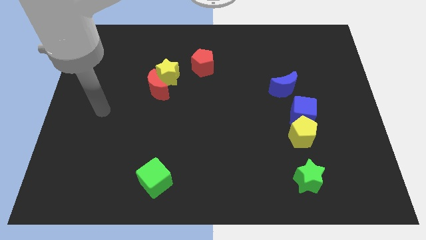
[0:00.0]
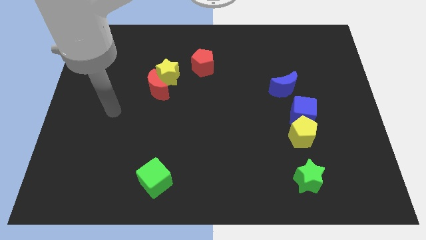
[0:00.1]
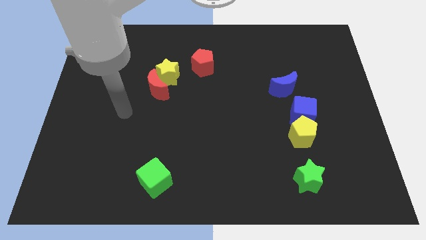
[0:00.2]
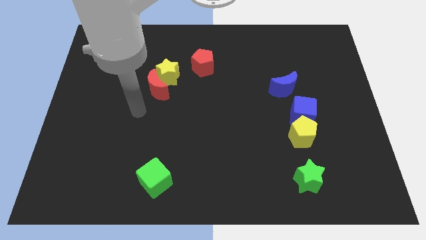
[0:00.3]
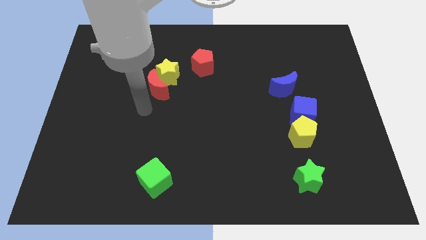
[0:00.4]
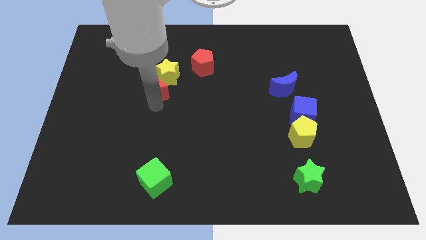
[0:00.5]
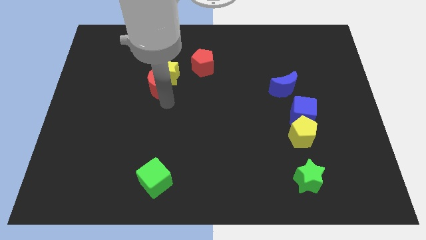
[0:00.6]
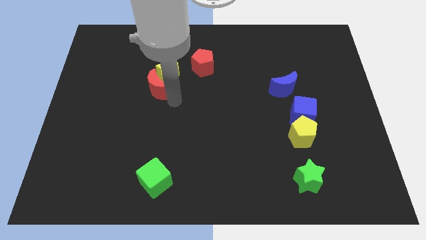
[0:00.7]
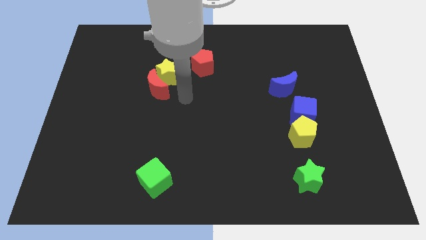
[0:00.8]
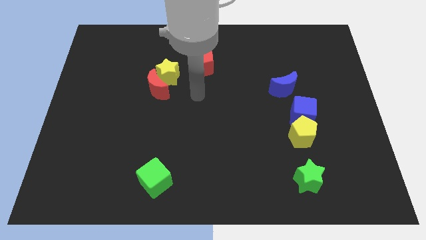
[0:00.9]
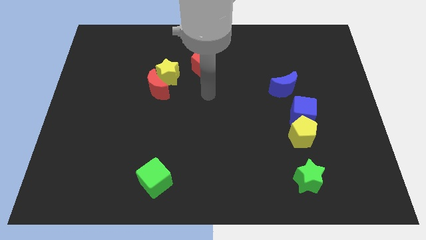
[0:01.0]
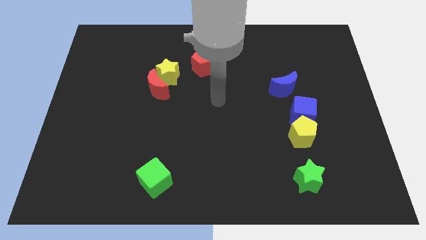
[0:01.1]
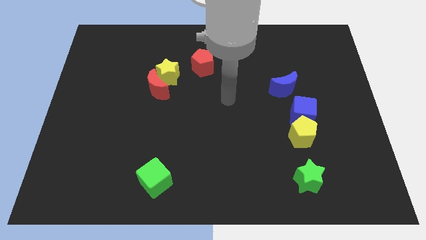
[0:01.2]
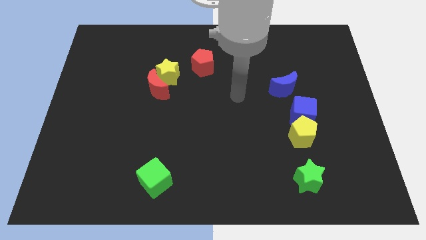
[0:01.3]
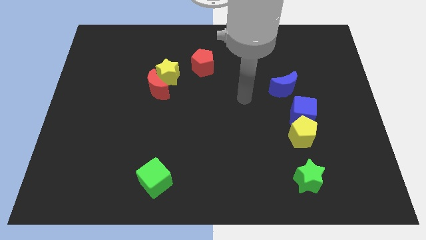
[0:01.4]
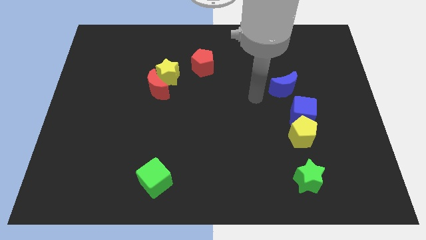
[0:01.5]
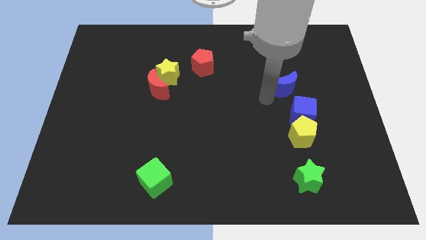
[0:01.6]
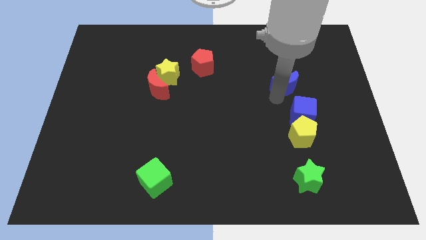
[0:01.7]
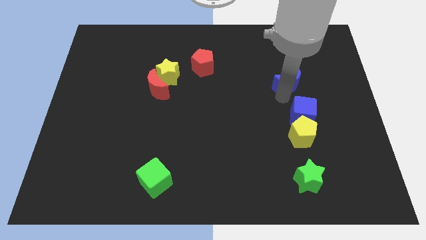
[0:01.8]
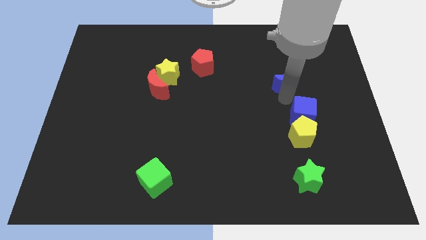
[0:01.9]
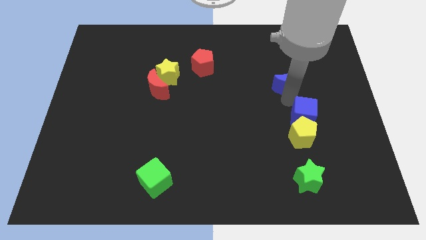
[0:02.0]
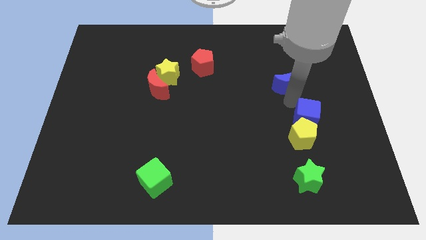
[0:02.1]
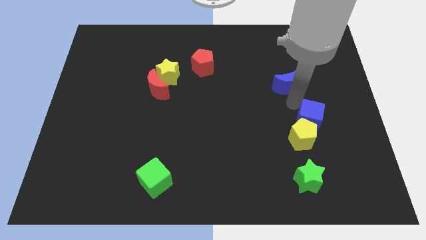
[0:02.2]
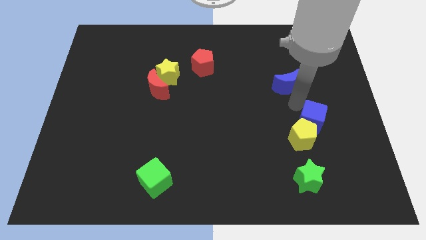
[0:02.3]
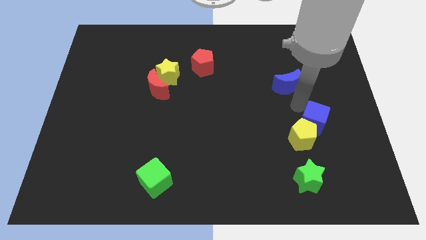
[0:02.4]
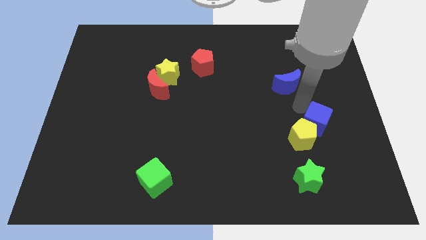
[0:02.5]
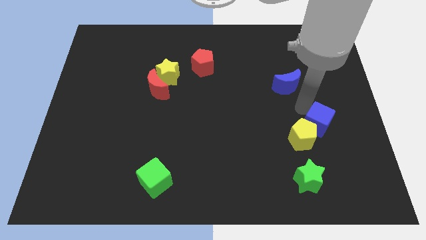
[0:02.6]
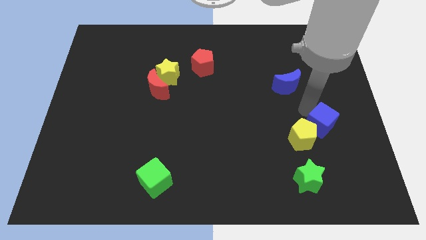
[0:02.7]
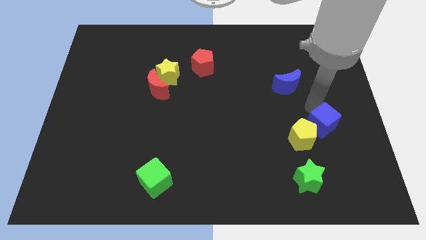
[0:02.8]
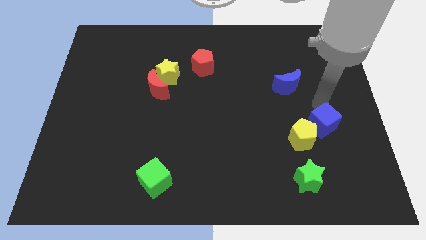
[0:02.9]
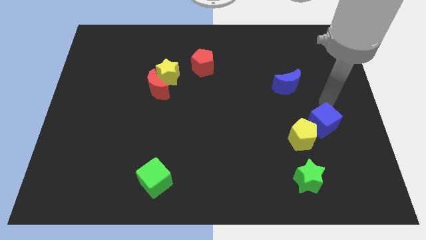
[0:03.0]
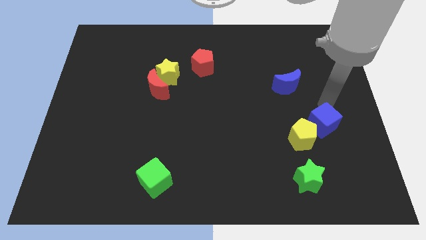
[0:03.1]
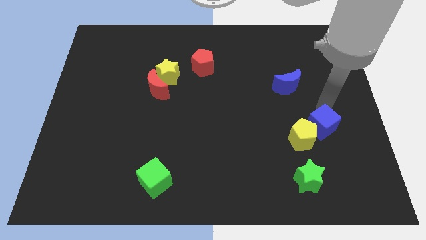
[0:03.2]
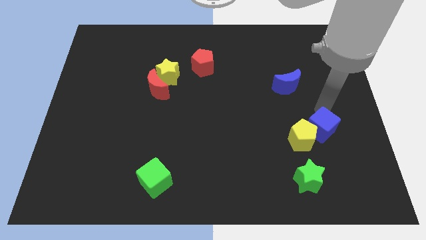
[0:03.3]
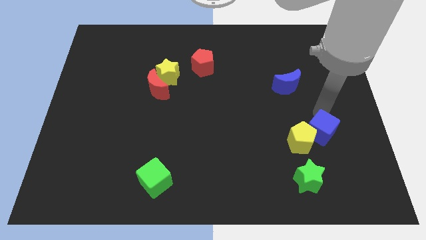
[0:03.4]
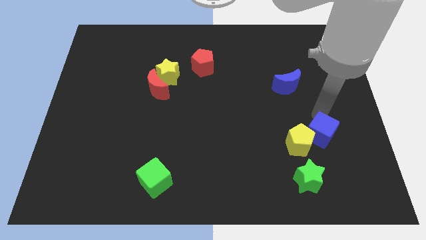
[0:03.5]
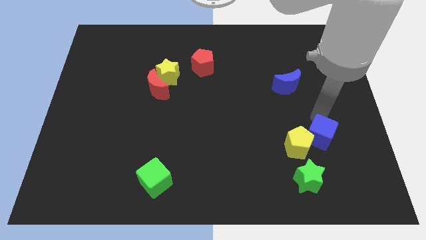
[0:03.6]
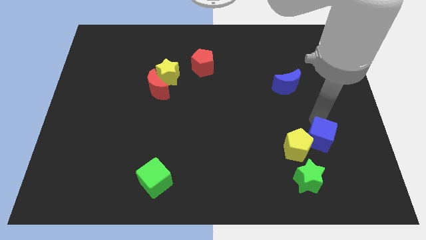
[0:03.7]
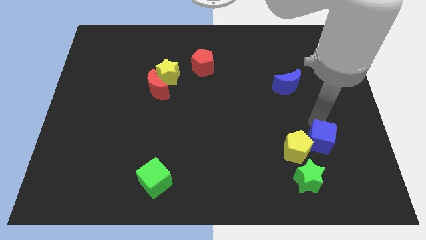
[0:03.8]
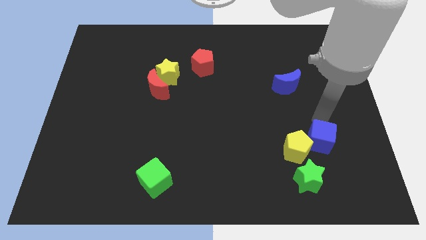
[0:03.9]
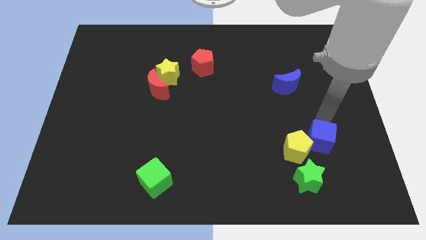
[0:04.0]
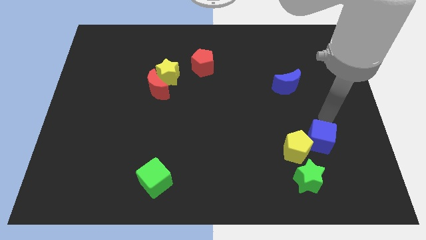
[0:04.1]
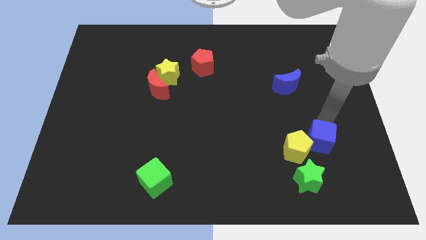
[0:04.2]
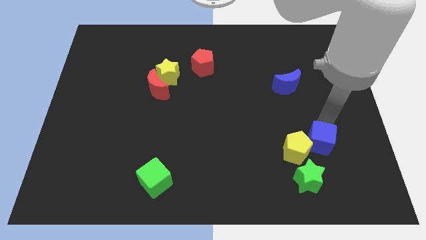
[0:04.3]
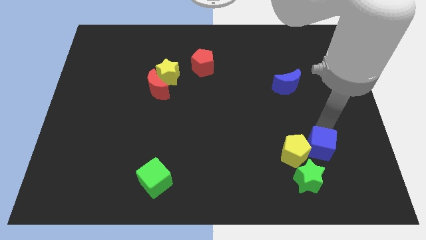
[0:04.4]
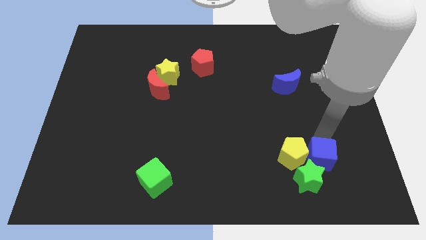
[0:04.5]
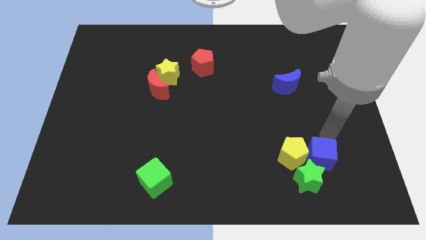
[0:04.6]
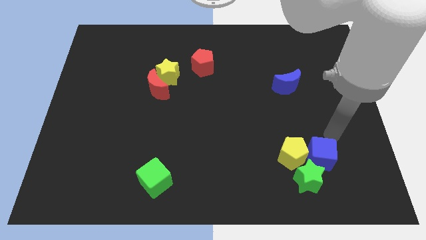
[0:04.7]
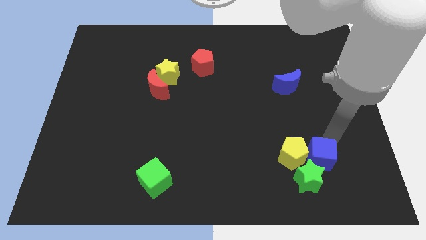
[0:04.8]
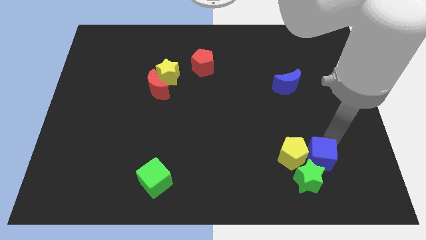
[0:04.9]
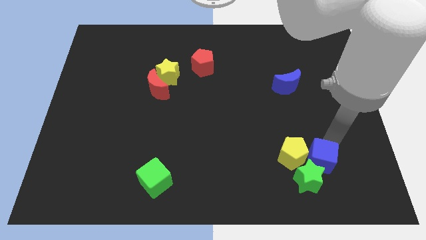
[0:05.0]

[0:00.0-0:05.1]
slide the blue cube towards the green star

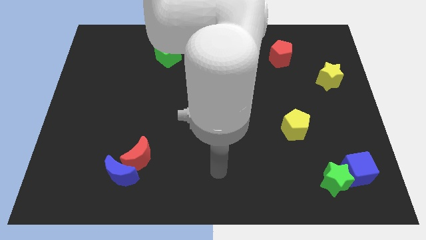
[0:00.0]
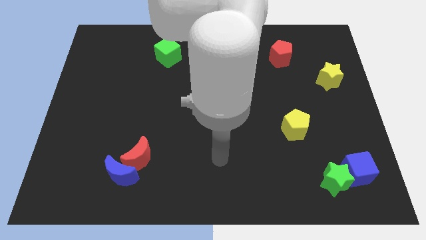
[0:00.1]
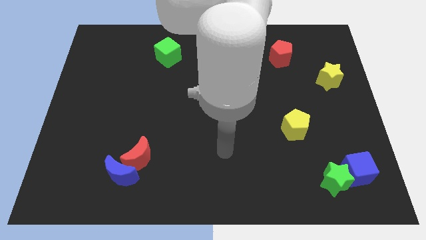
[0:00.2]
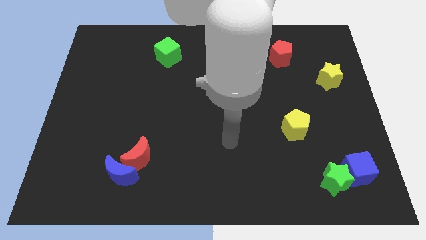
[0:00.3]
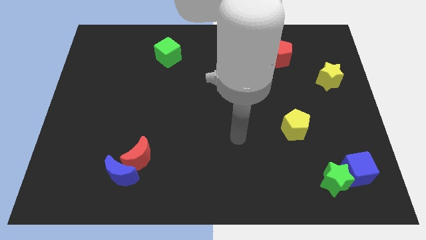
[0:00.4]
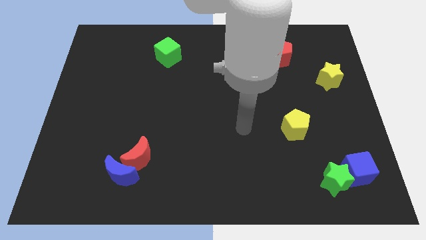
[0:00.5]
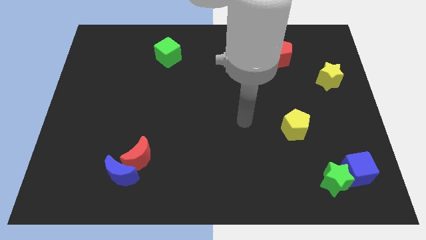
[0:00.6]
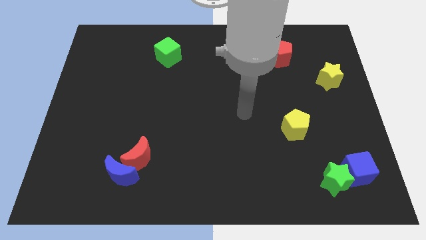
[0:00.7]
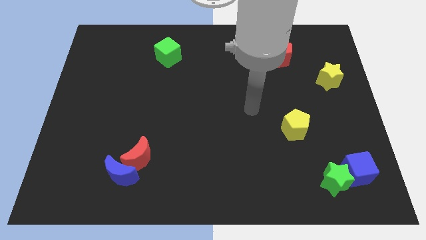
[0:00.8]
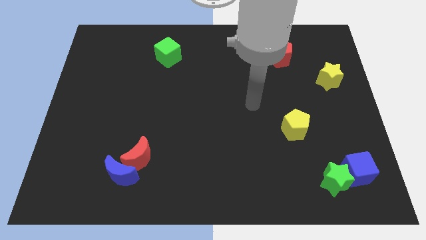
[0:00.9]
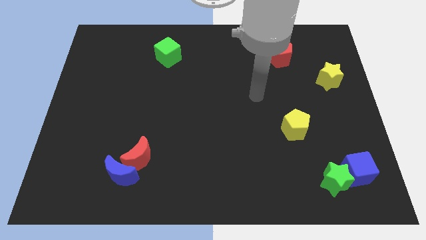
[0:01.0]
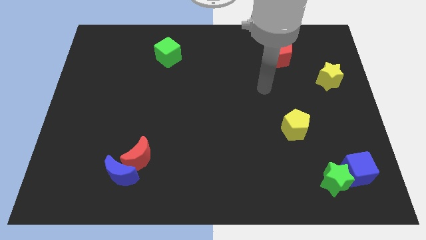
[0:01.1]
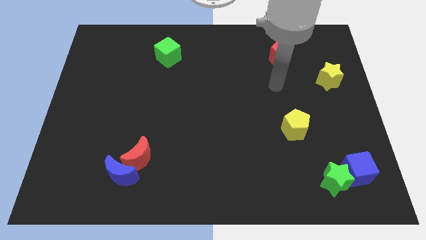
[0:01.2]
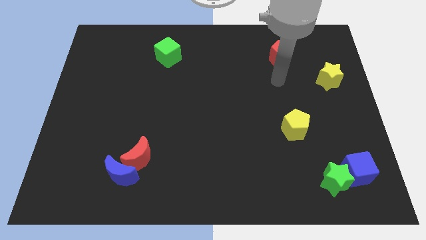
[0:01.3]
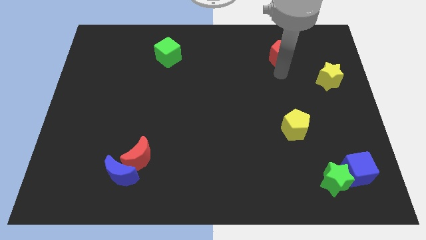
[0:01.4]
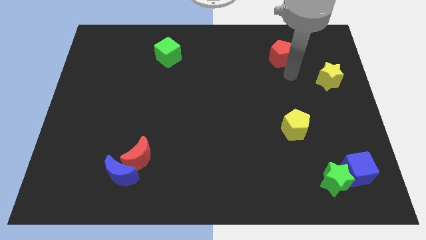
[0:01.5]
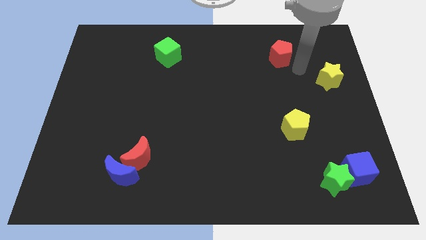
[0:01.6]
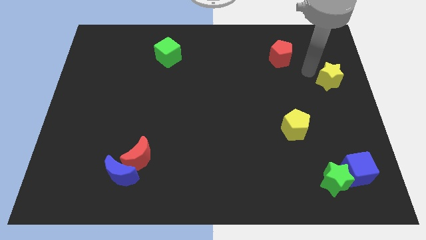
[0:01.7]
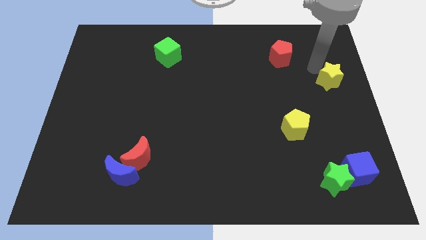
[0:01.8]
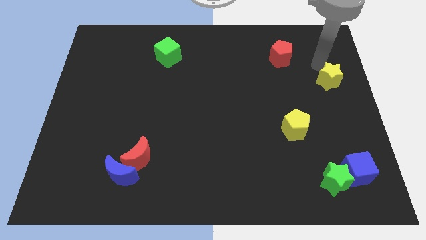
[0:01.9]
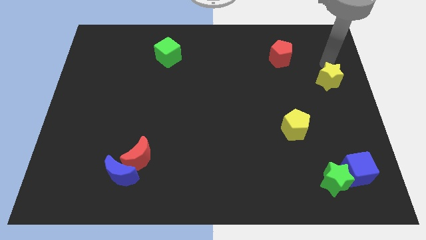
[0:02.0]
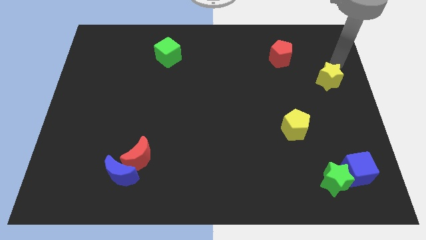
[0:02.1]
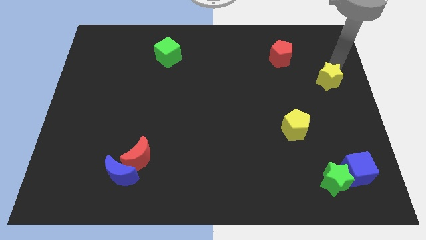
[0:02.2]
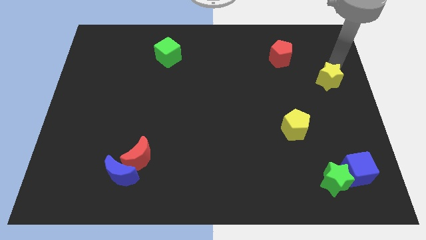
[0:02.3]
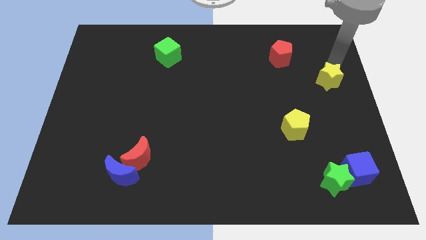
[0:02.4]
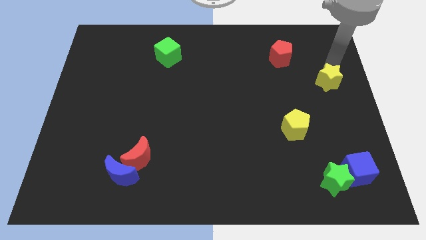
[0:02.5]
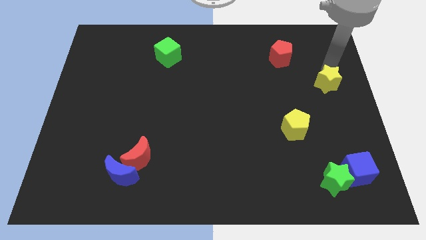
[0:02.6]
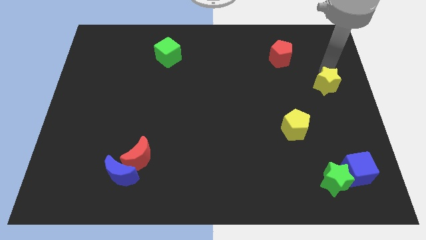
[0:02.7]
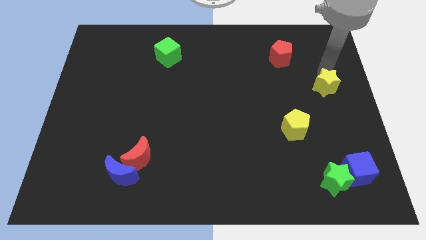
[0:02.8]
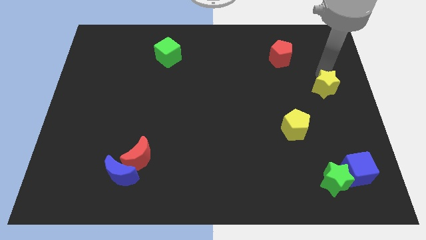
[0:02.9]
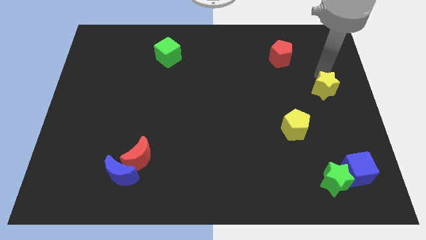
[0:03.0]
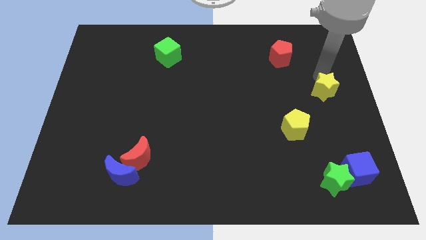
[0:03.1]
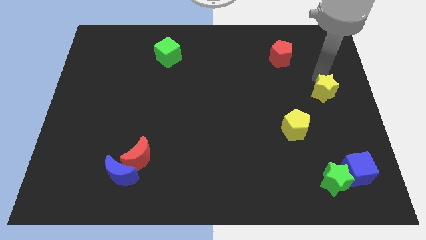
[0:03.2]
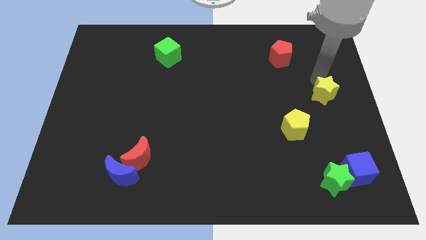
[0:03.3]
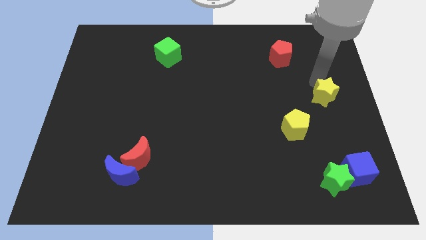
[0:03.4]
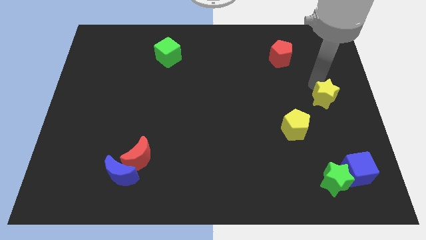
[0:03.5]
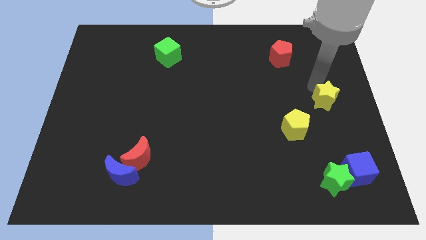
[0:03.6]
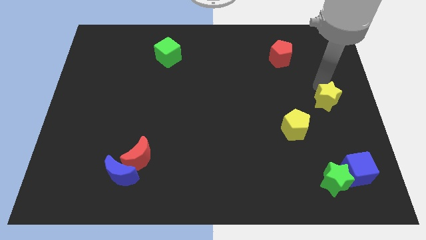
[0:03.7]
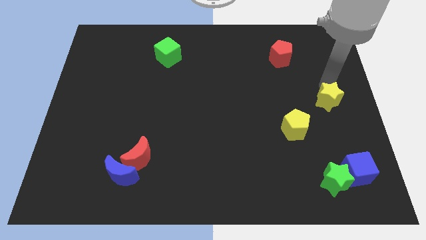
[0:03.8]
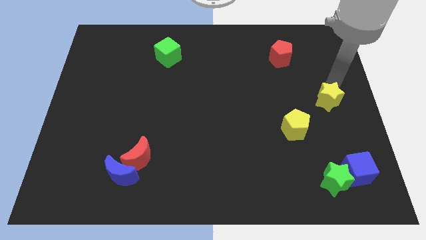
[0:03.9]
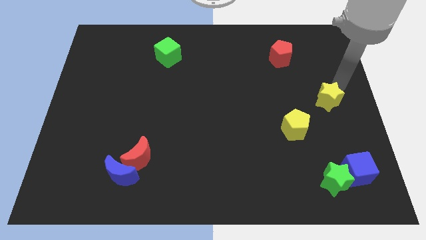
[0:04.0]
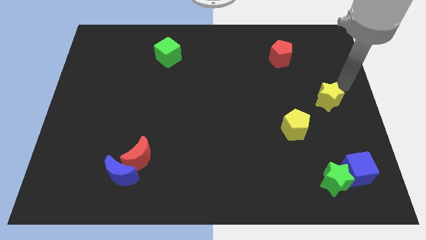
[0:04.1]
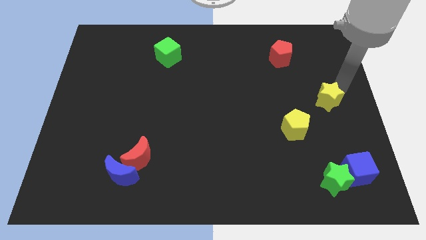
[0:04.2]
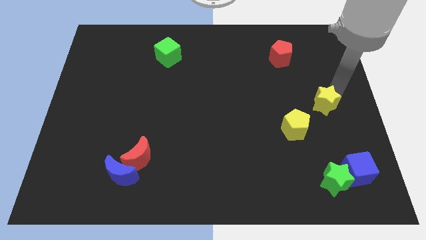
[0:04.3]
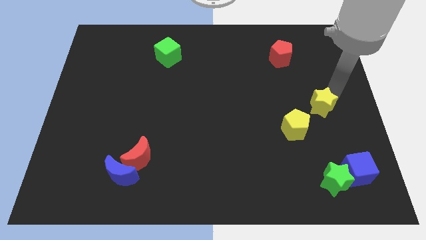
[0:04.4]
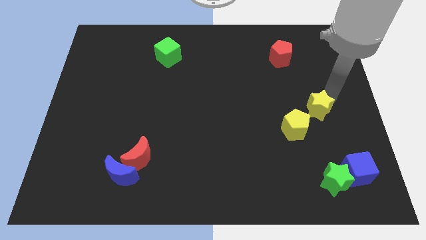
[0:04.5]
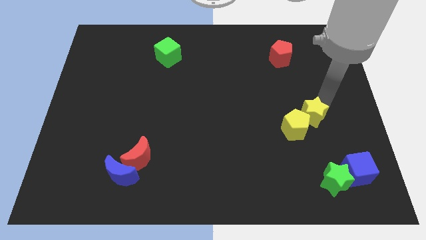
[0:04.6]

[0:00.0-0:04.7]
push the yellow star close to the yellow pentagon
